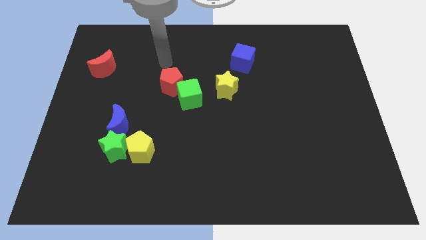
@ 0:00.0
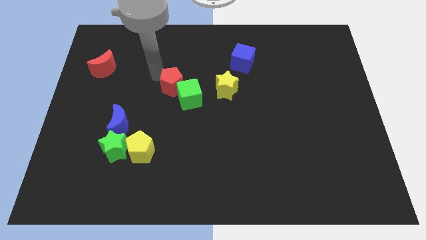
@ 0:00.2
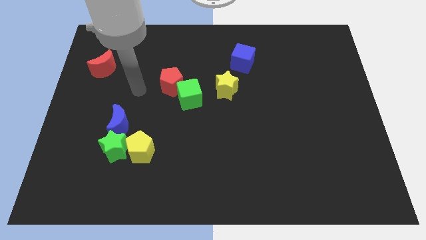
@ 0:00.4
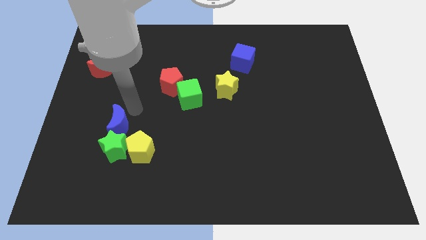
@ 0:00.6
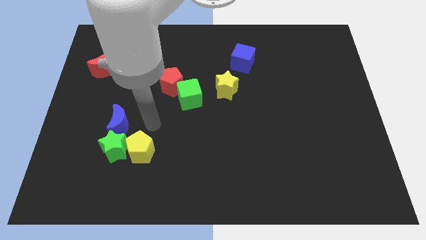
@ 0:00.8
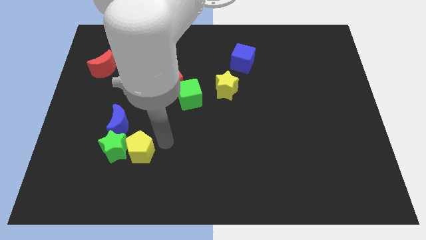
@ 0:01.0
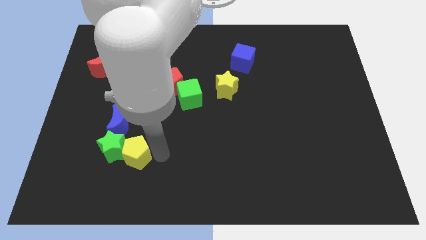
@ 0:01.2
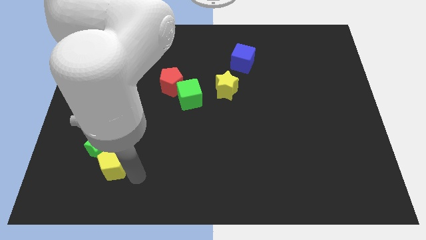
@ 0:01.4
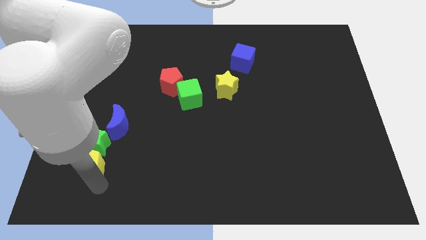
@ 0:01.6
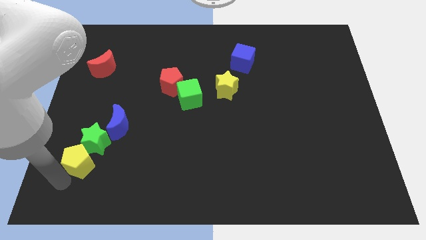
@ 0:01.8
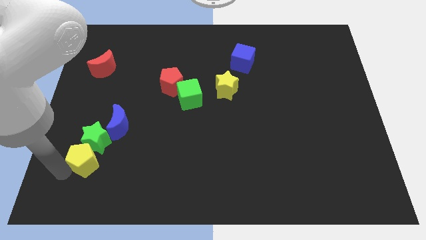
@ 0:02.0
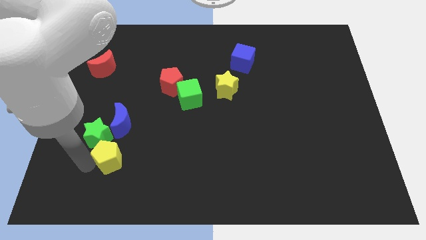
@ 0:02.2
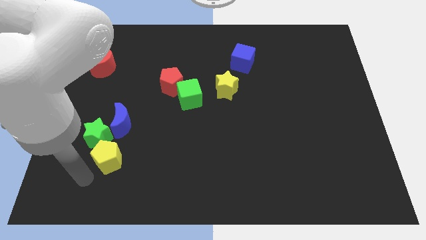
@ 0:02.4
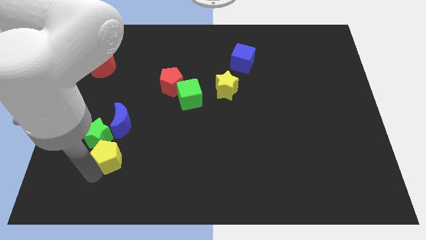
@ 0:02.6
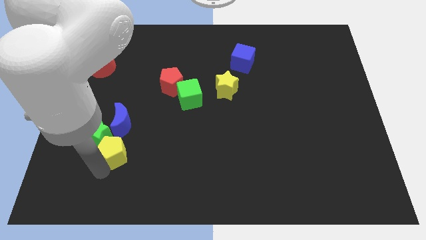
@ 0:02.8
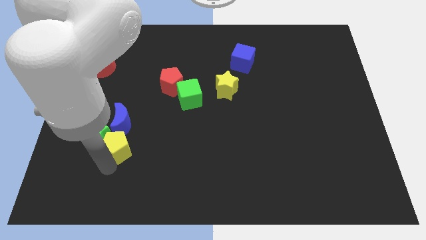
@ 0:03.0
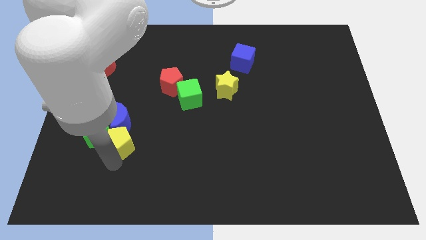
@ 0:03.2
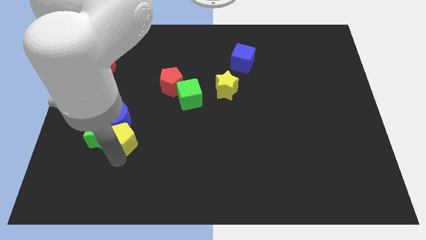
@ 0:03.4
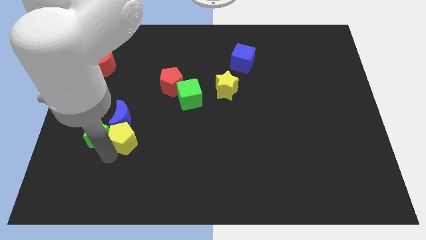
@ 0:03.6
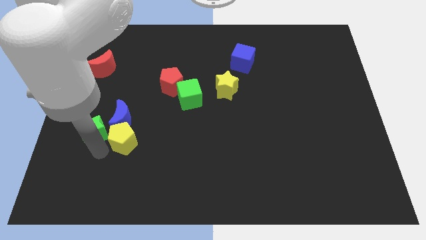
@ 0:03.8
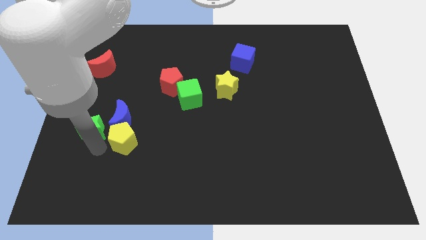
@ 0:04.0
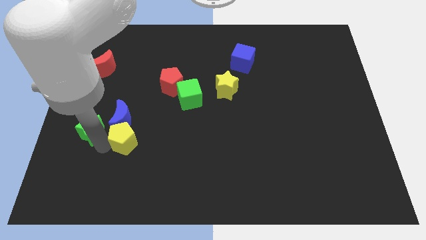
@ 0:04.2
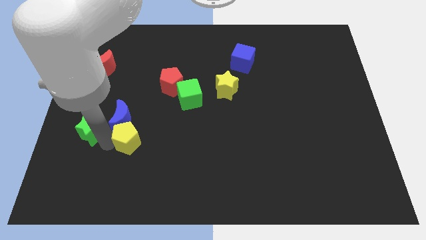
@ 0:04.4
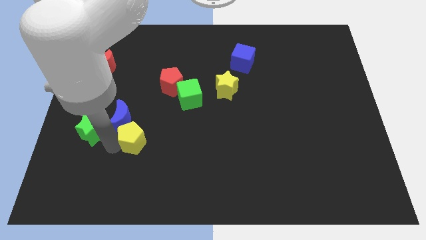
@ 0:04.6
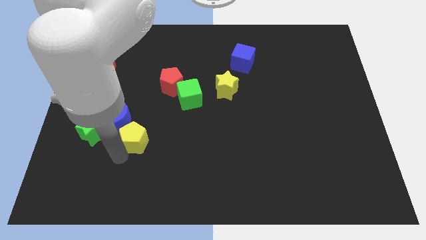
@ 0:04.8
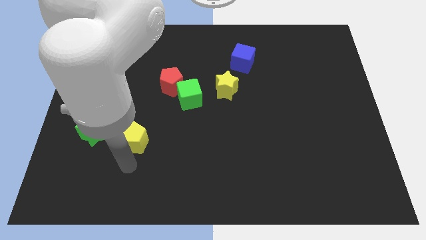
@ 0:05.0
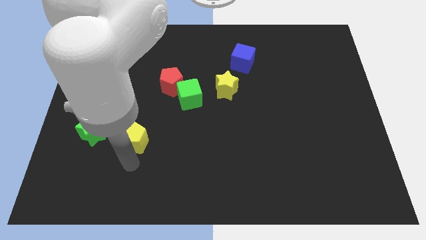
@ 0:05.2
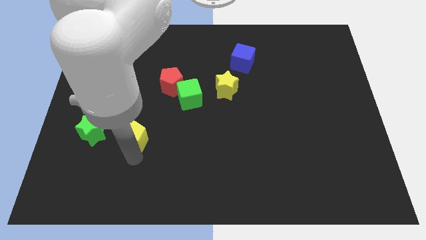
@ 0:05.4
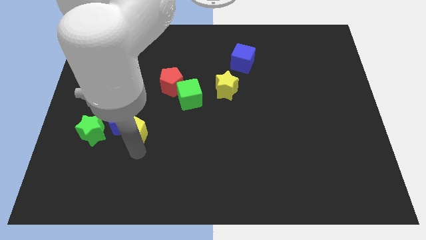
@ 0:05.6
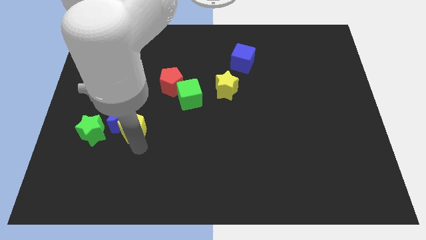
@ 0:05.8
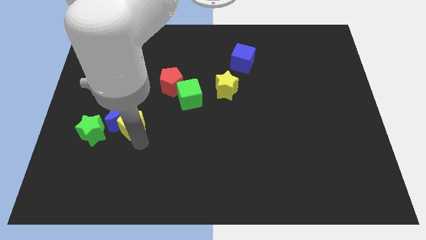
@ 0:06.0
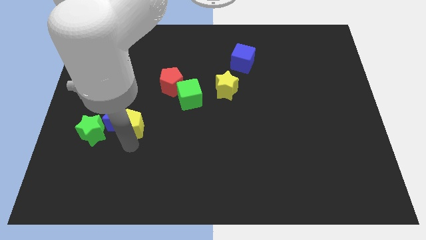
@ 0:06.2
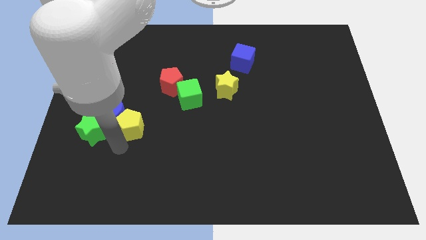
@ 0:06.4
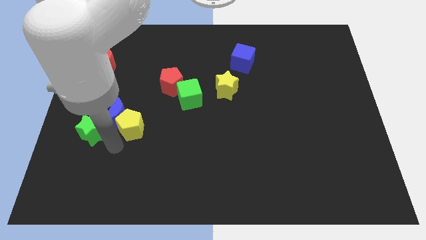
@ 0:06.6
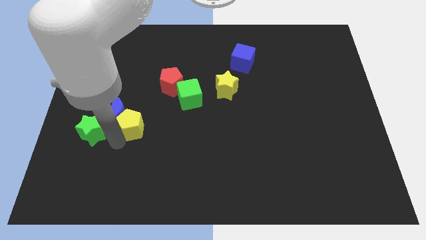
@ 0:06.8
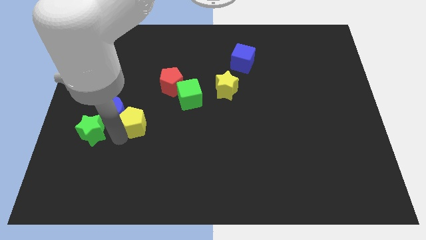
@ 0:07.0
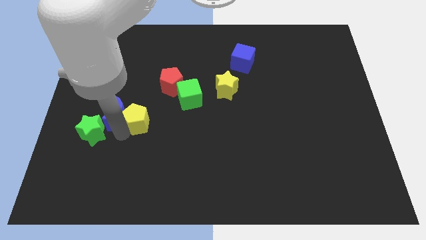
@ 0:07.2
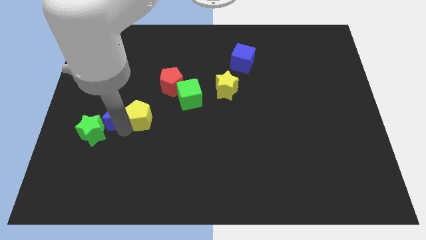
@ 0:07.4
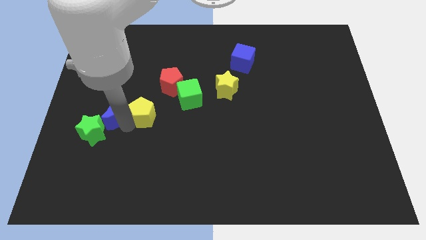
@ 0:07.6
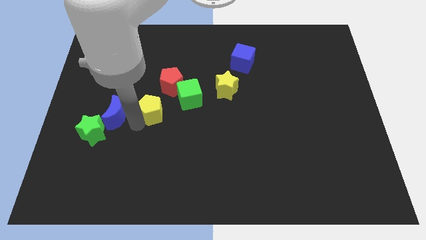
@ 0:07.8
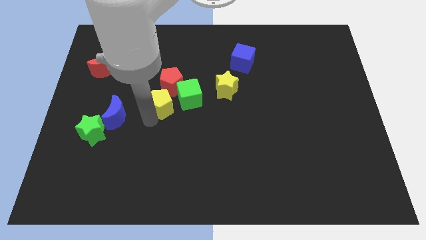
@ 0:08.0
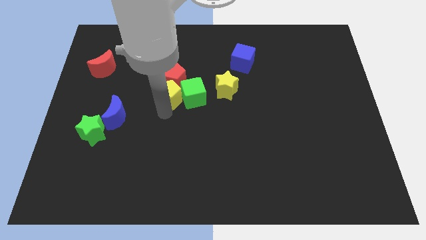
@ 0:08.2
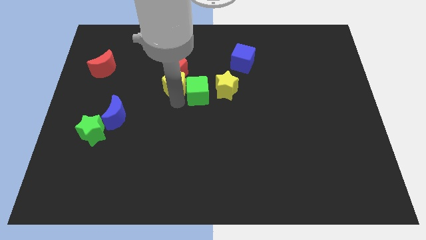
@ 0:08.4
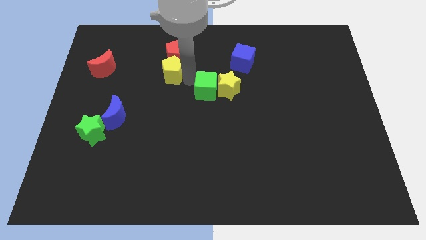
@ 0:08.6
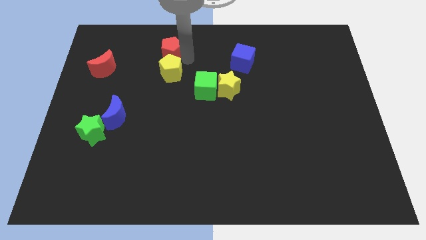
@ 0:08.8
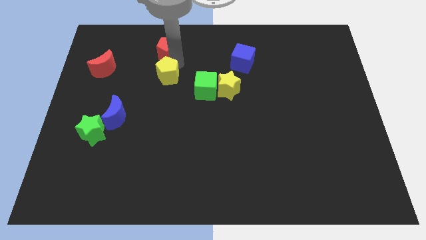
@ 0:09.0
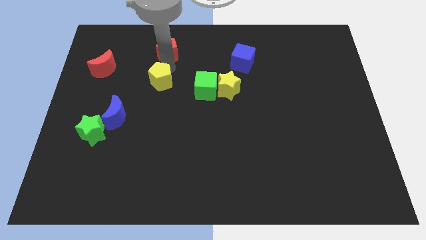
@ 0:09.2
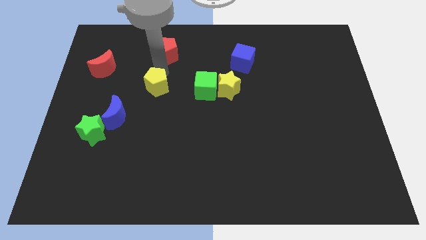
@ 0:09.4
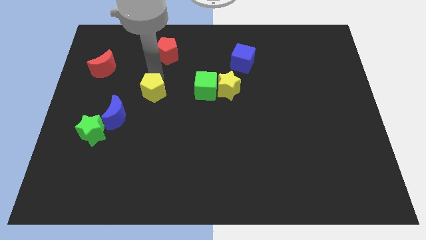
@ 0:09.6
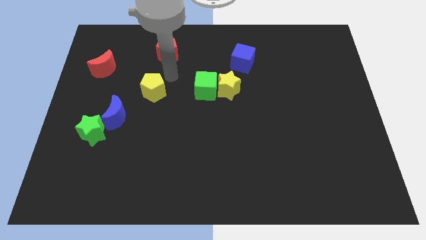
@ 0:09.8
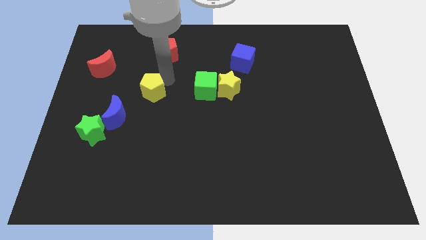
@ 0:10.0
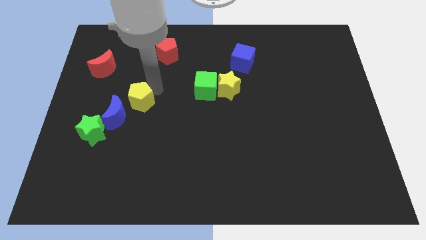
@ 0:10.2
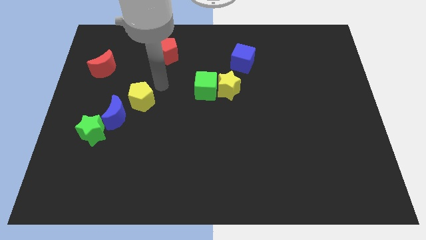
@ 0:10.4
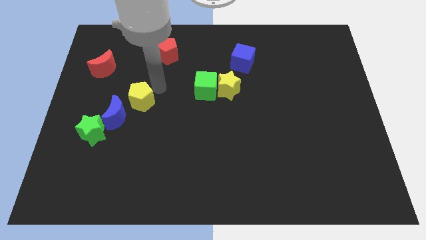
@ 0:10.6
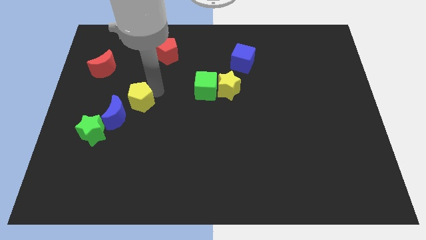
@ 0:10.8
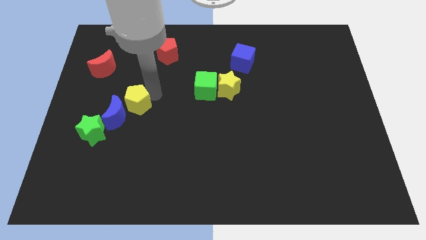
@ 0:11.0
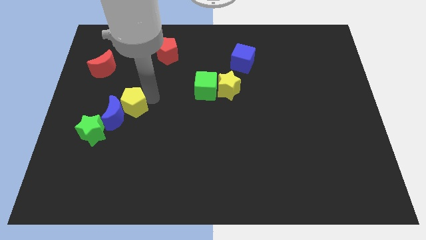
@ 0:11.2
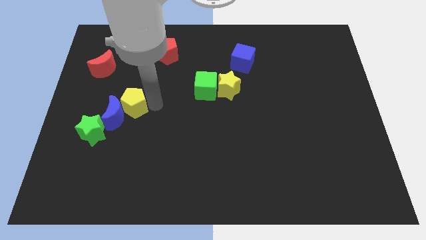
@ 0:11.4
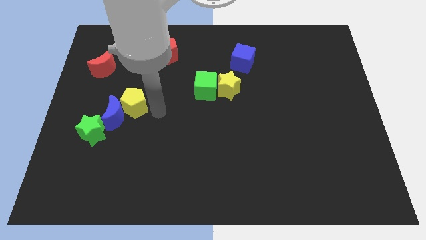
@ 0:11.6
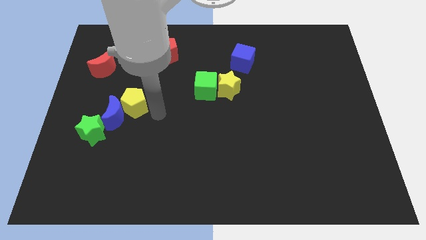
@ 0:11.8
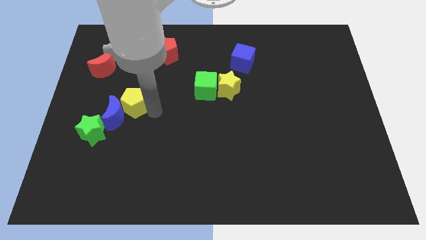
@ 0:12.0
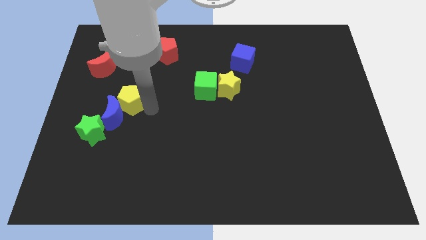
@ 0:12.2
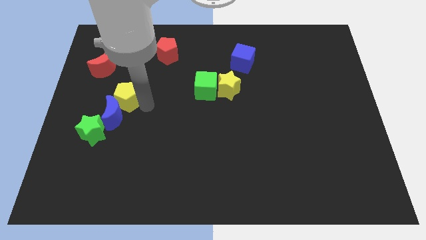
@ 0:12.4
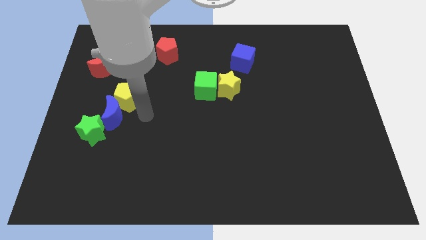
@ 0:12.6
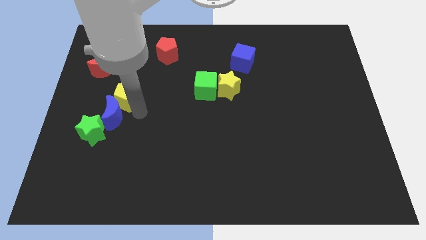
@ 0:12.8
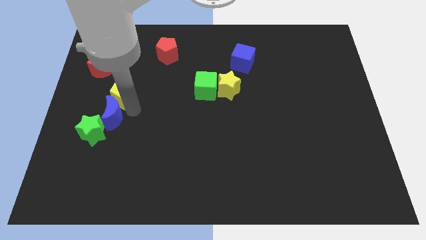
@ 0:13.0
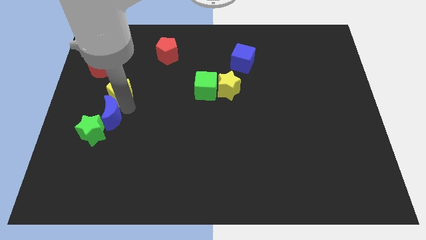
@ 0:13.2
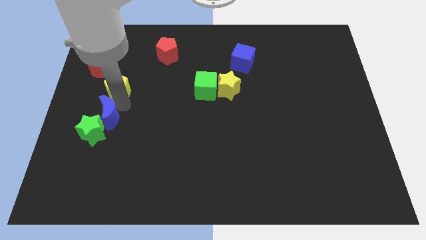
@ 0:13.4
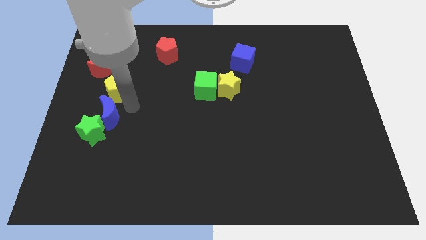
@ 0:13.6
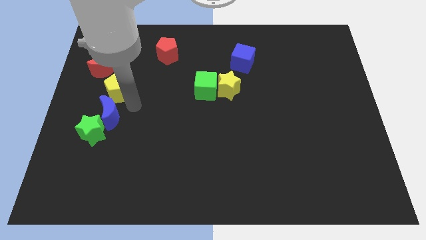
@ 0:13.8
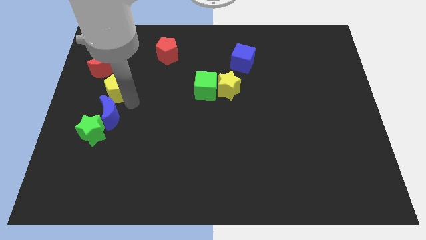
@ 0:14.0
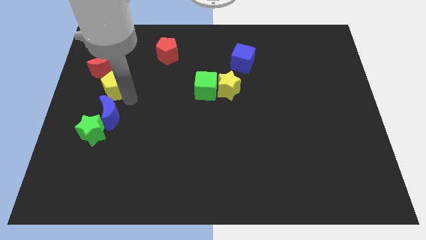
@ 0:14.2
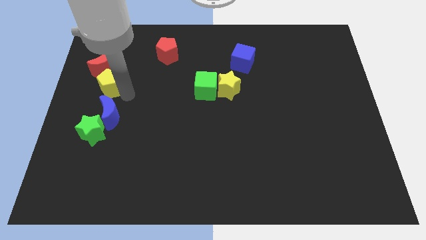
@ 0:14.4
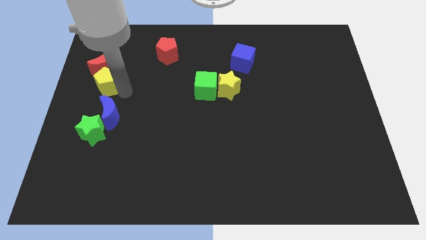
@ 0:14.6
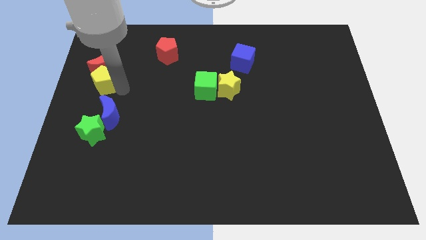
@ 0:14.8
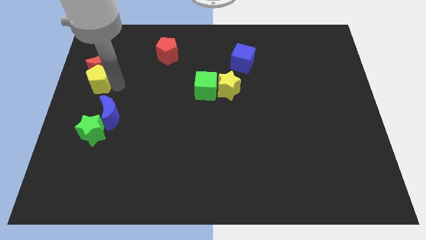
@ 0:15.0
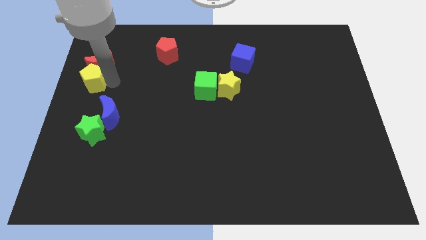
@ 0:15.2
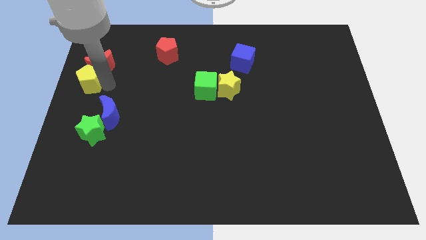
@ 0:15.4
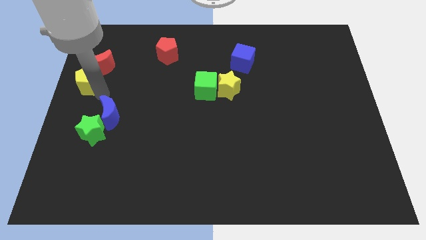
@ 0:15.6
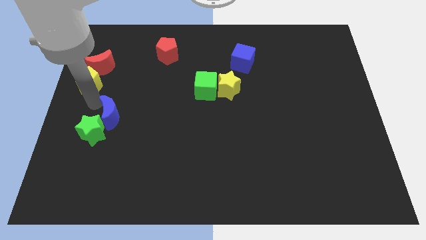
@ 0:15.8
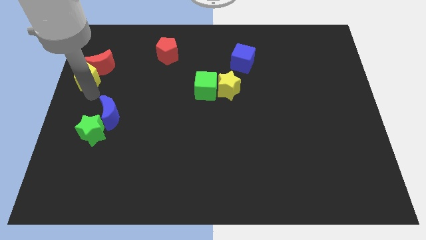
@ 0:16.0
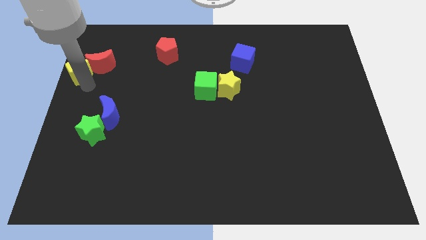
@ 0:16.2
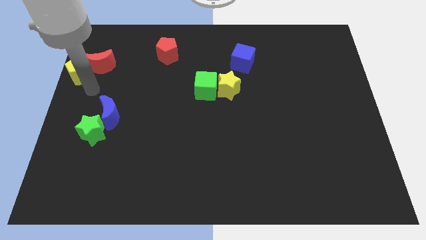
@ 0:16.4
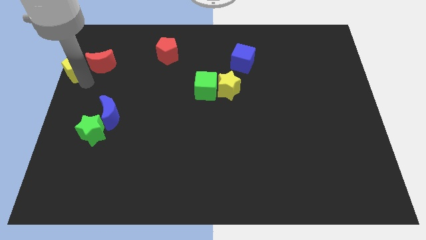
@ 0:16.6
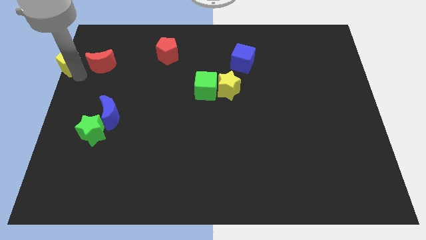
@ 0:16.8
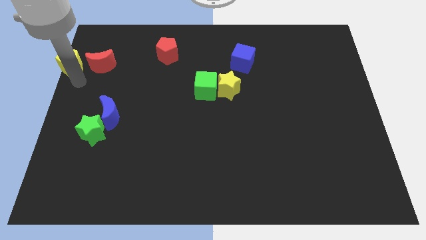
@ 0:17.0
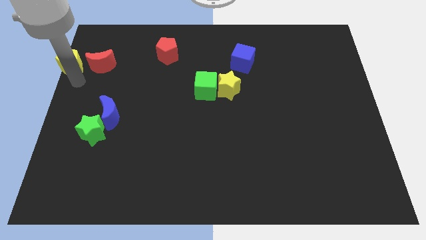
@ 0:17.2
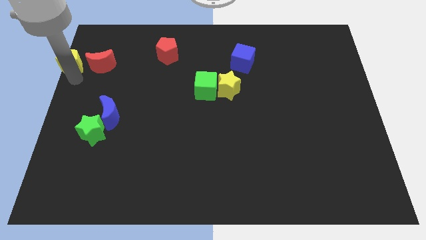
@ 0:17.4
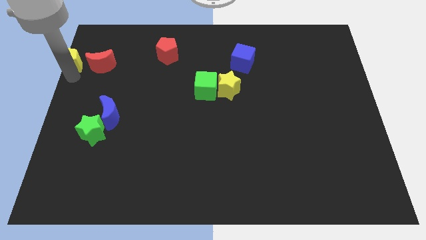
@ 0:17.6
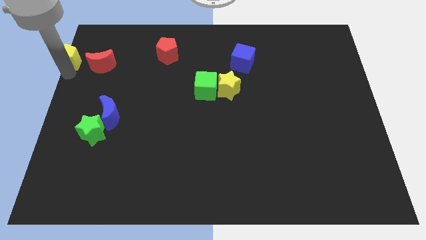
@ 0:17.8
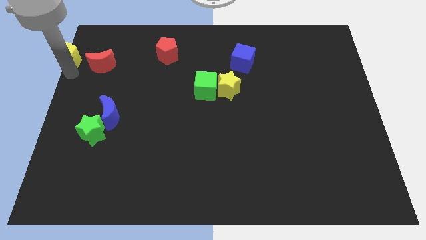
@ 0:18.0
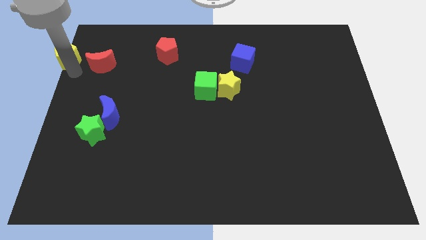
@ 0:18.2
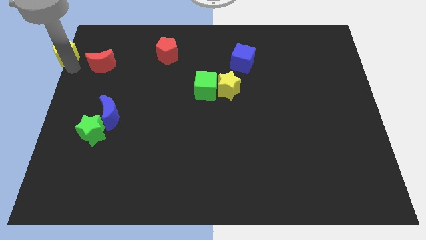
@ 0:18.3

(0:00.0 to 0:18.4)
put the yellow pentagon to the upper left corner
